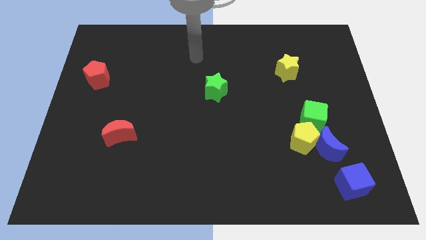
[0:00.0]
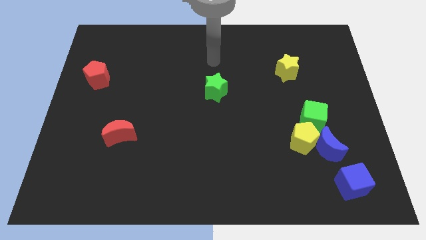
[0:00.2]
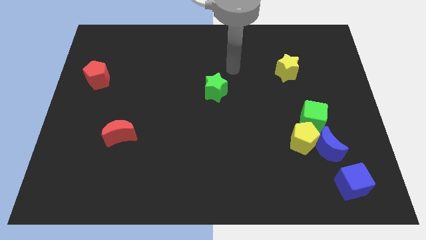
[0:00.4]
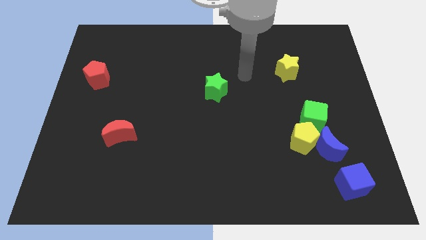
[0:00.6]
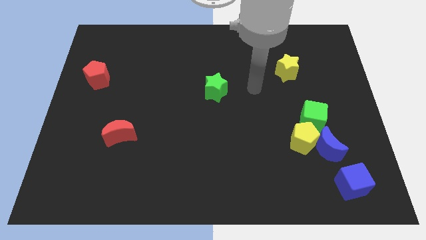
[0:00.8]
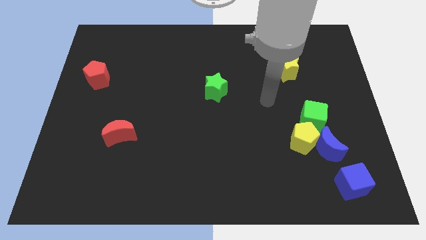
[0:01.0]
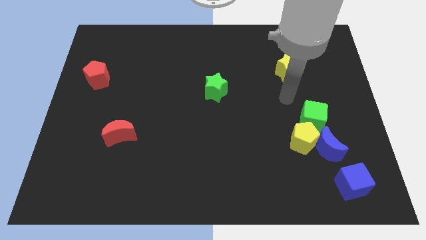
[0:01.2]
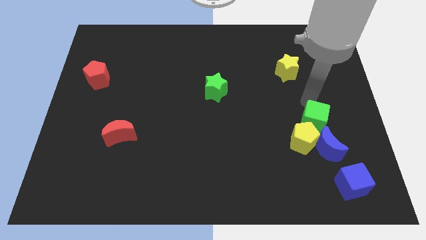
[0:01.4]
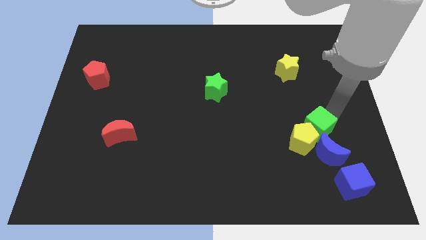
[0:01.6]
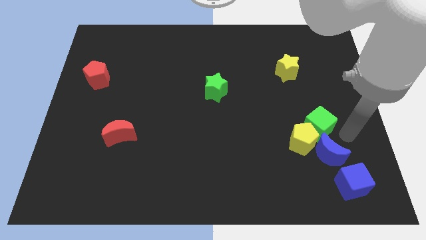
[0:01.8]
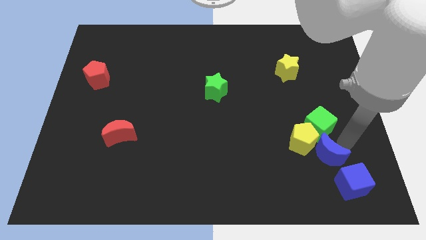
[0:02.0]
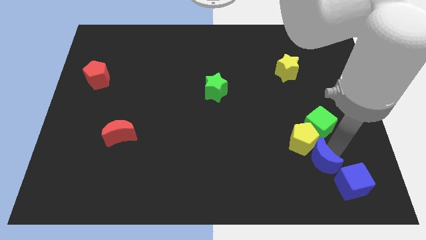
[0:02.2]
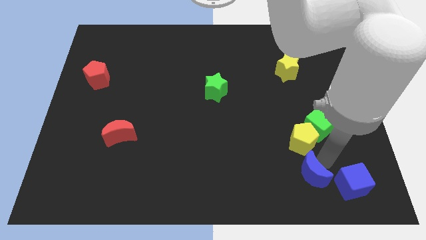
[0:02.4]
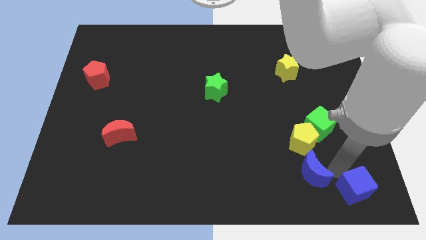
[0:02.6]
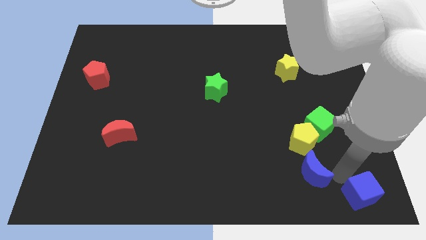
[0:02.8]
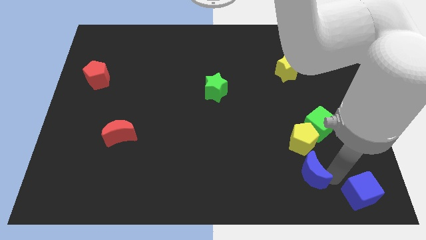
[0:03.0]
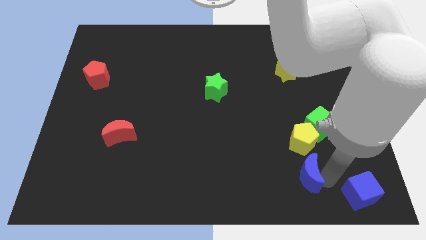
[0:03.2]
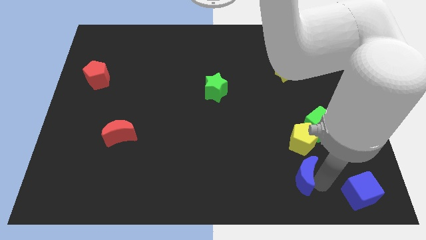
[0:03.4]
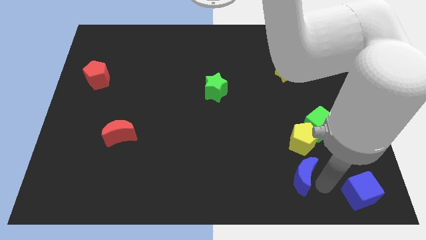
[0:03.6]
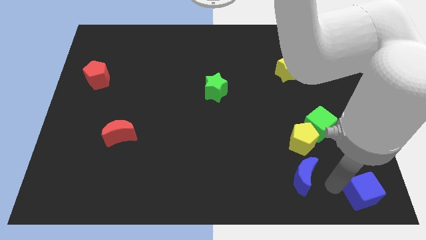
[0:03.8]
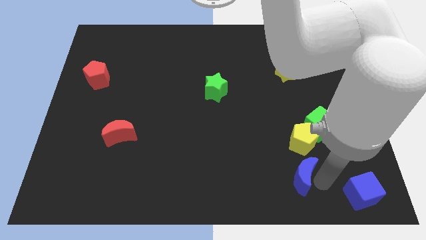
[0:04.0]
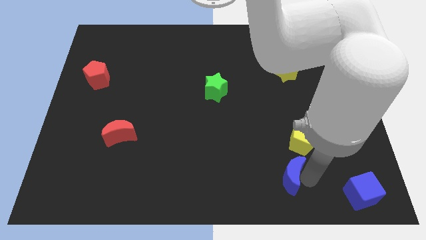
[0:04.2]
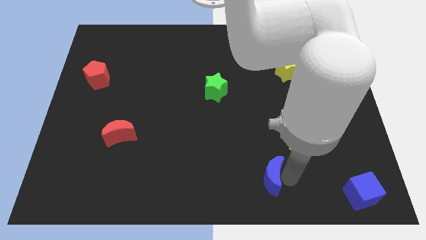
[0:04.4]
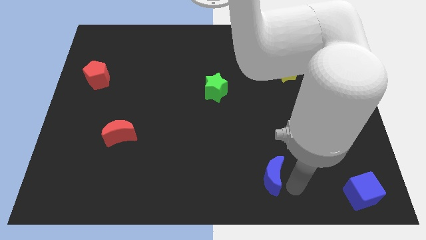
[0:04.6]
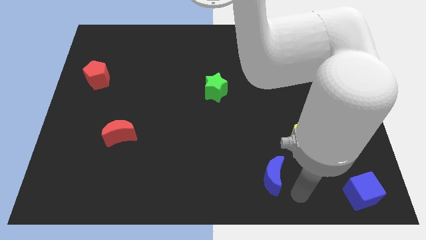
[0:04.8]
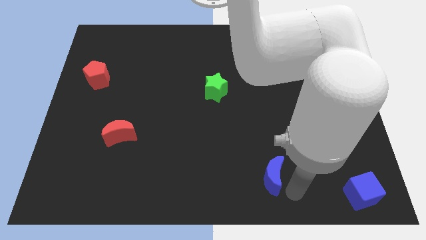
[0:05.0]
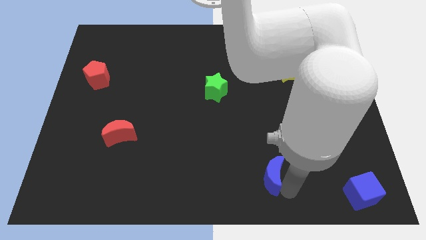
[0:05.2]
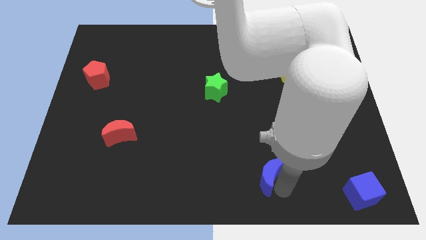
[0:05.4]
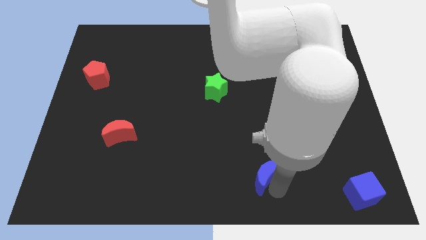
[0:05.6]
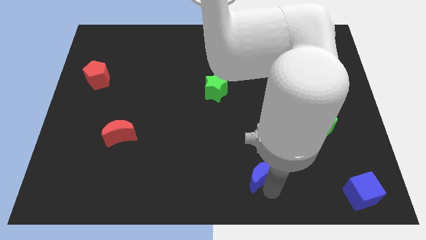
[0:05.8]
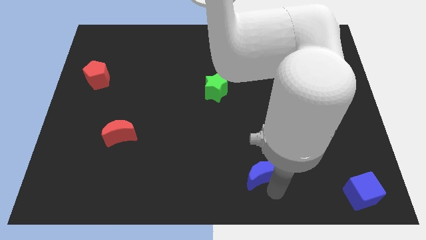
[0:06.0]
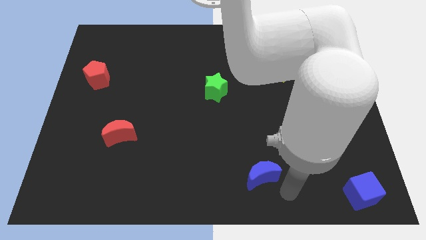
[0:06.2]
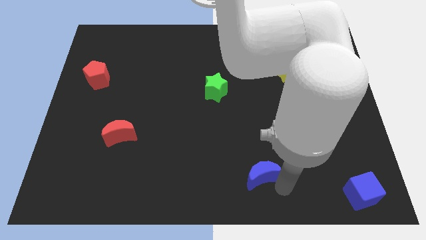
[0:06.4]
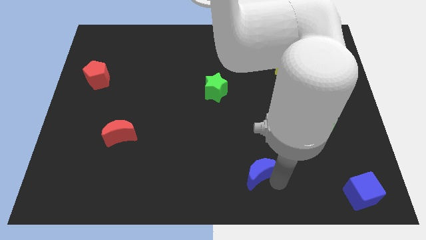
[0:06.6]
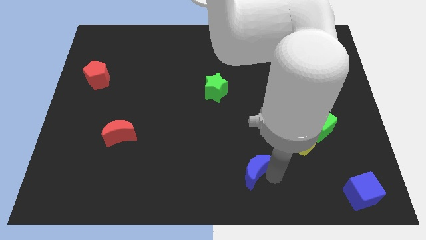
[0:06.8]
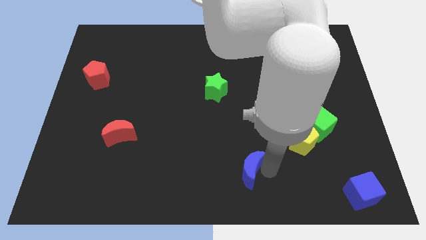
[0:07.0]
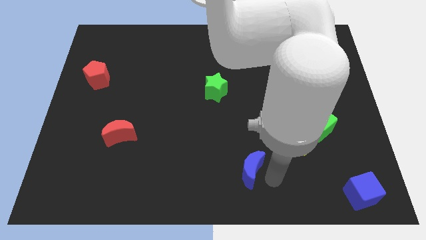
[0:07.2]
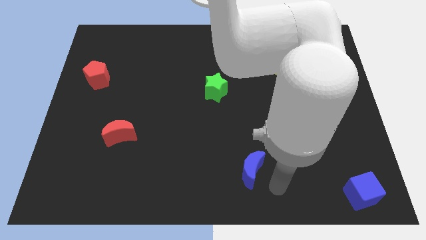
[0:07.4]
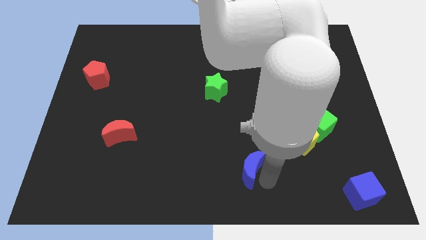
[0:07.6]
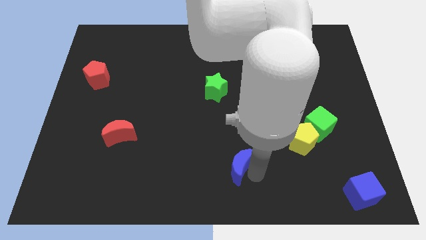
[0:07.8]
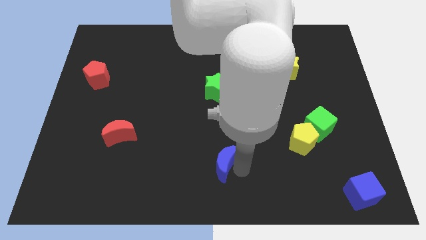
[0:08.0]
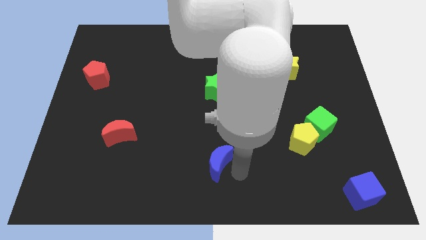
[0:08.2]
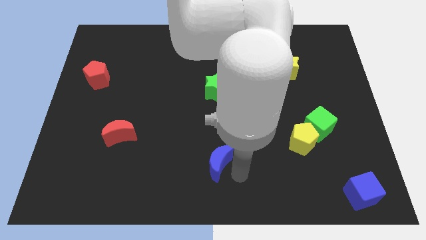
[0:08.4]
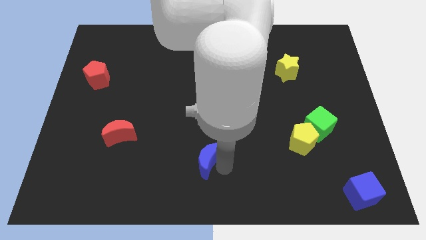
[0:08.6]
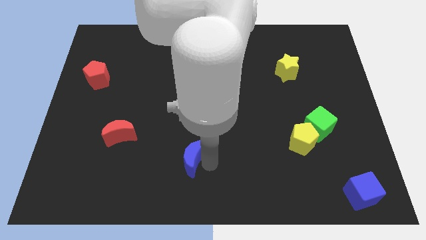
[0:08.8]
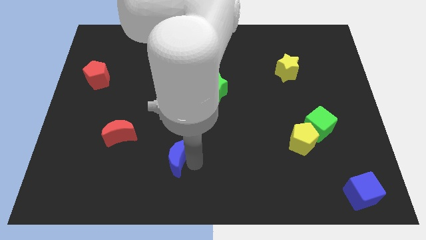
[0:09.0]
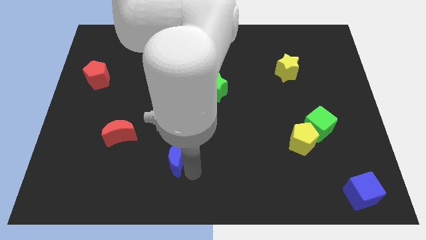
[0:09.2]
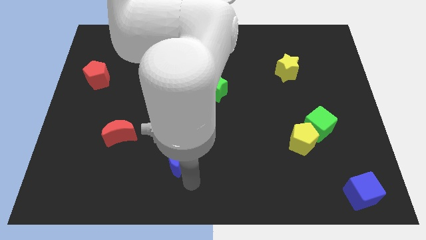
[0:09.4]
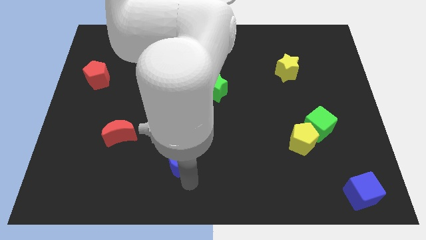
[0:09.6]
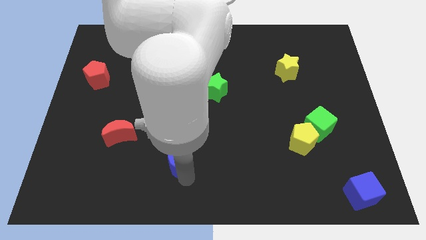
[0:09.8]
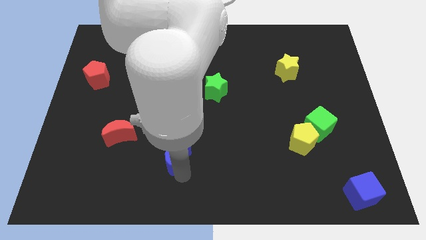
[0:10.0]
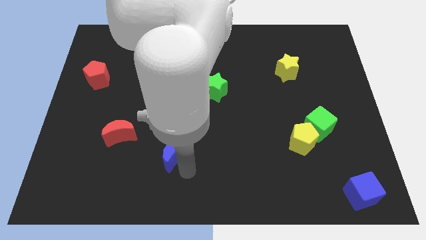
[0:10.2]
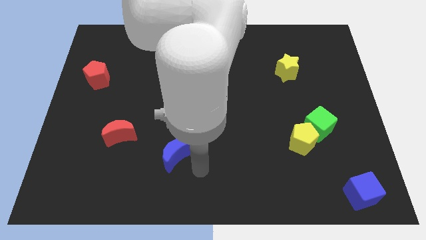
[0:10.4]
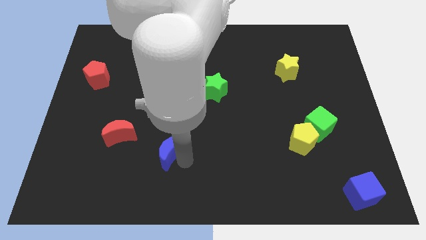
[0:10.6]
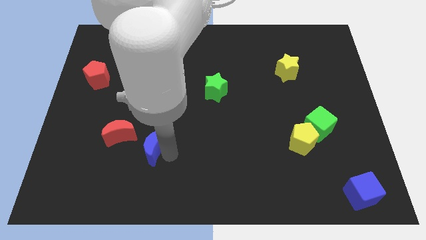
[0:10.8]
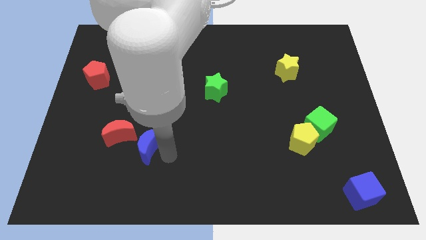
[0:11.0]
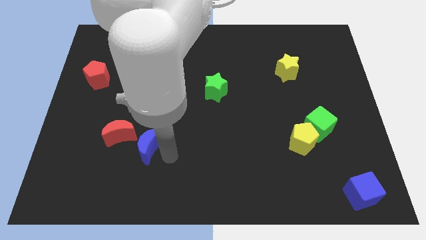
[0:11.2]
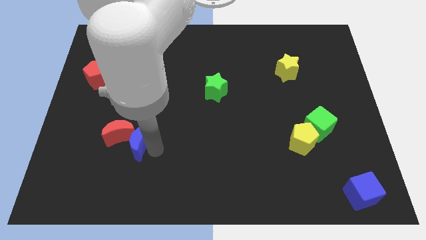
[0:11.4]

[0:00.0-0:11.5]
put the blue moon next to the red moon

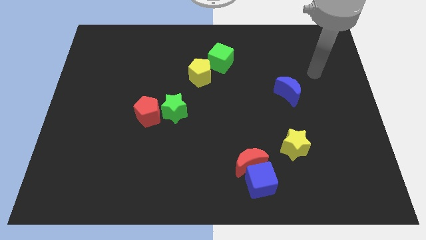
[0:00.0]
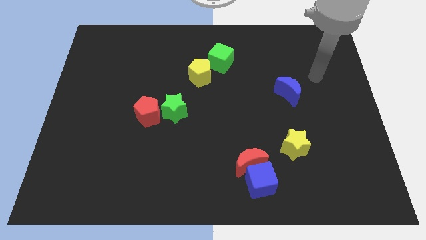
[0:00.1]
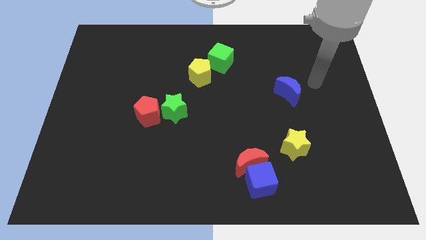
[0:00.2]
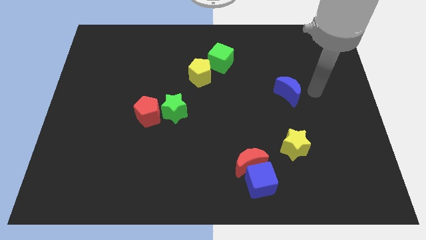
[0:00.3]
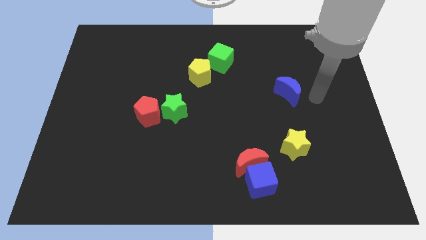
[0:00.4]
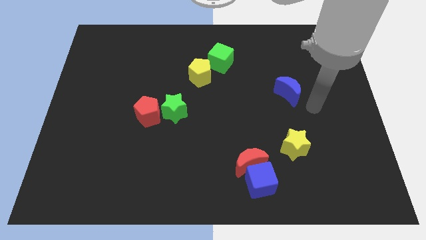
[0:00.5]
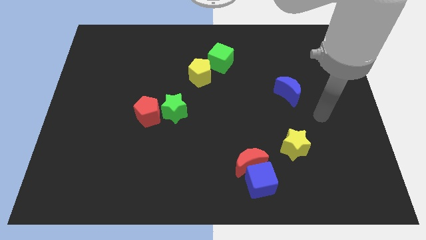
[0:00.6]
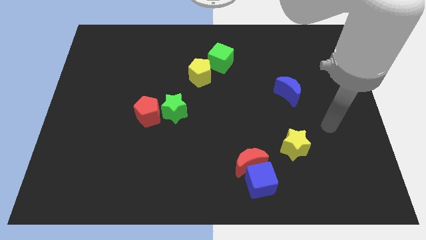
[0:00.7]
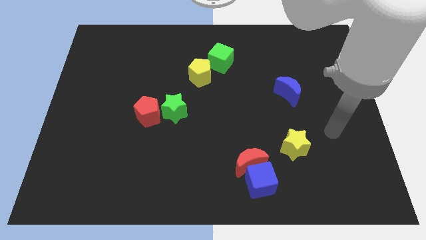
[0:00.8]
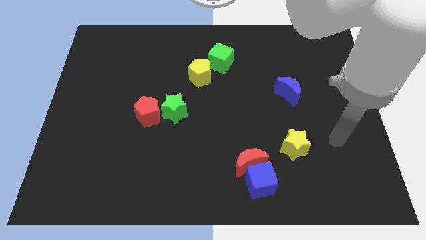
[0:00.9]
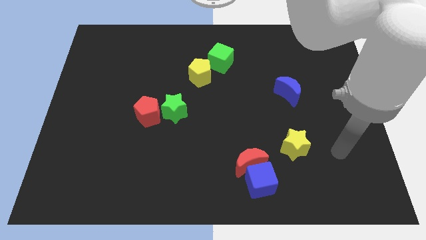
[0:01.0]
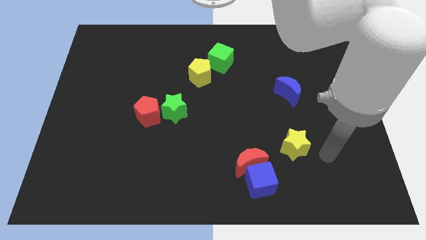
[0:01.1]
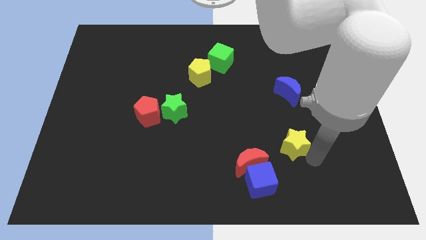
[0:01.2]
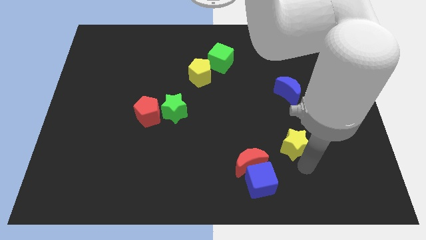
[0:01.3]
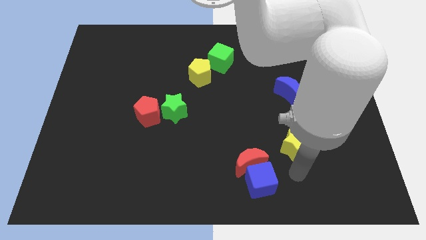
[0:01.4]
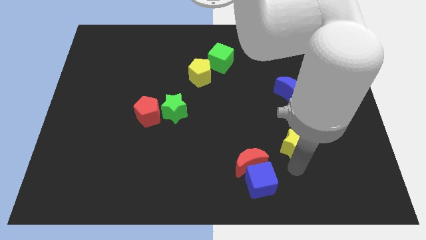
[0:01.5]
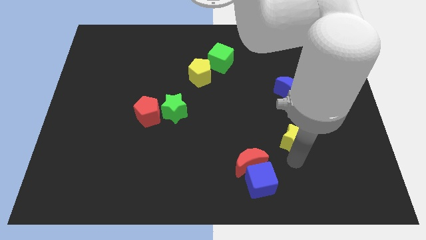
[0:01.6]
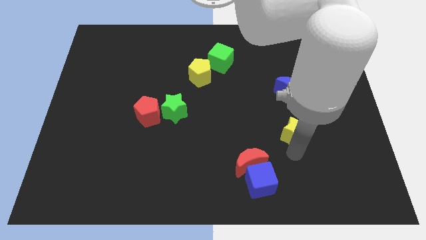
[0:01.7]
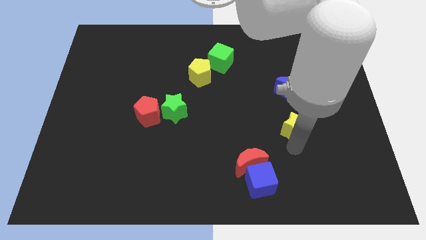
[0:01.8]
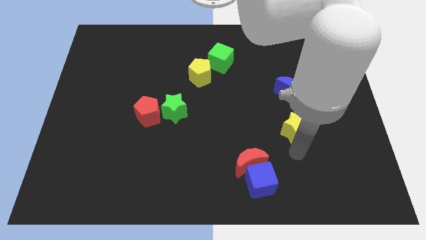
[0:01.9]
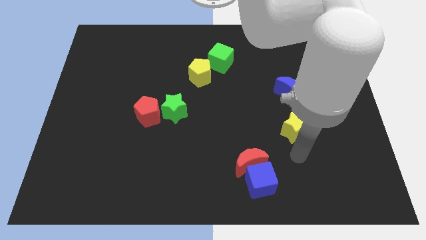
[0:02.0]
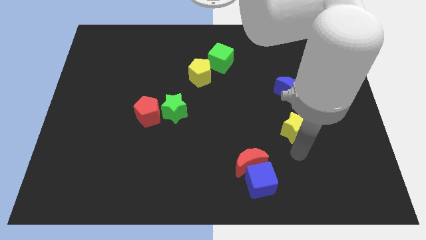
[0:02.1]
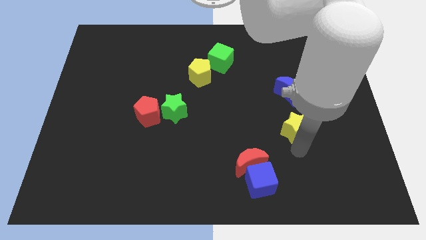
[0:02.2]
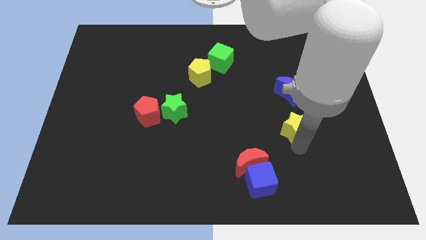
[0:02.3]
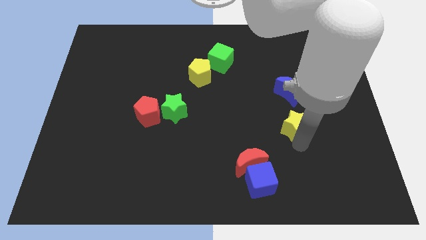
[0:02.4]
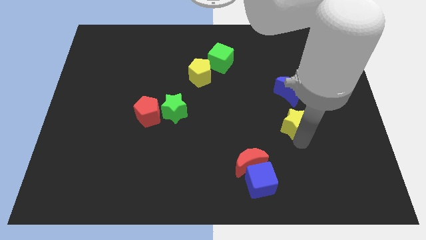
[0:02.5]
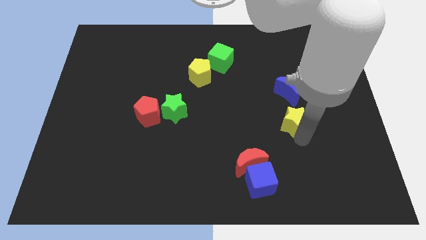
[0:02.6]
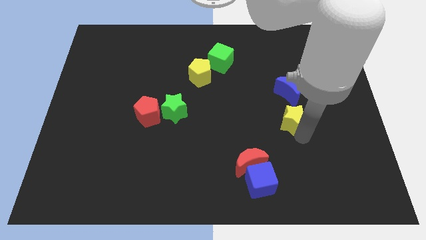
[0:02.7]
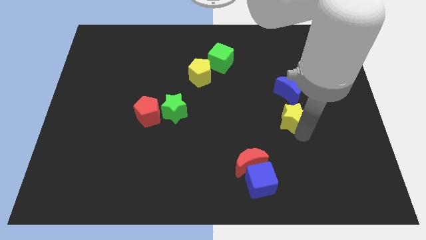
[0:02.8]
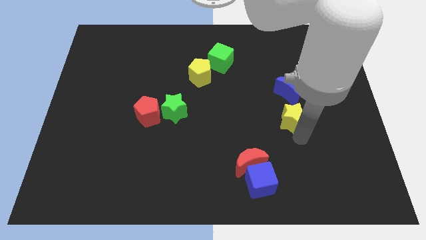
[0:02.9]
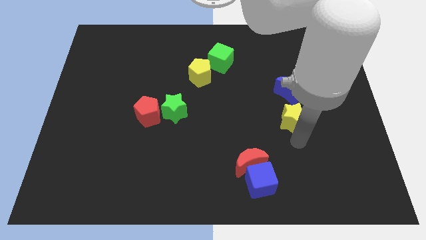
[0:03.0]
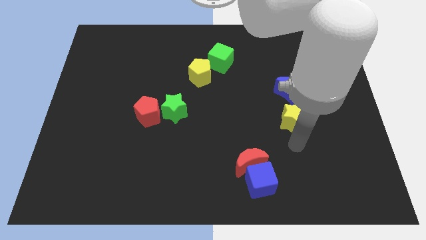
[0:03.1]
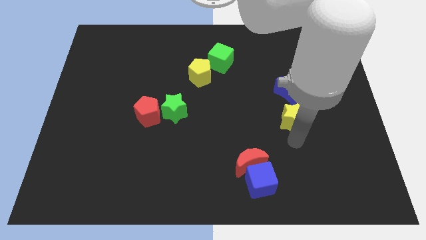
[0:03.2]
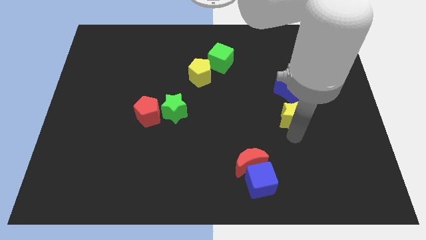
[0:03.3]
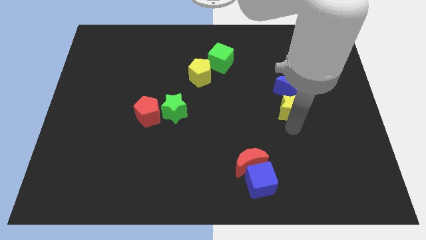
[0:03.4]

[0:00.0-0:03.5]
move the yellow star next to the blue moon
